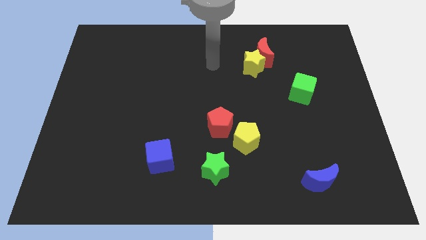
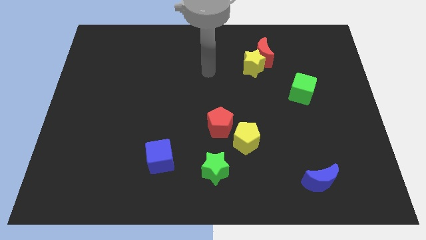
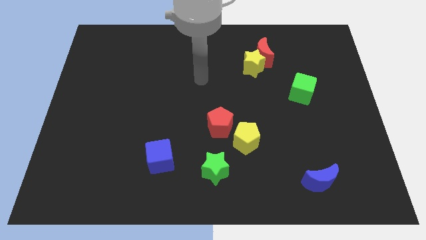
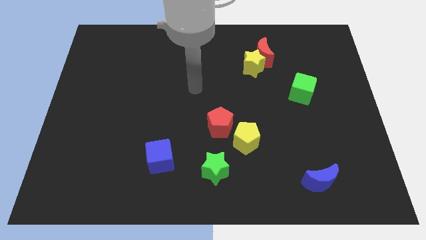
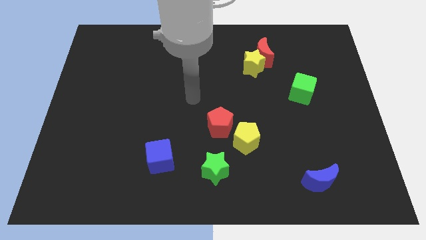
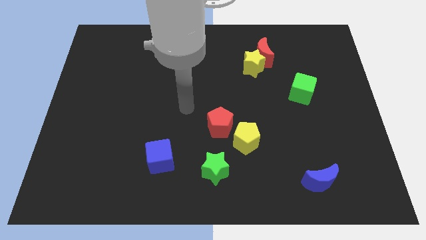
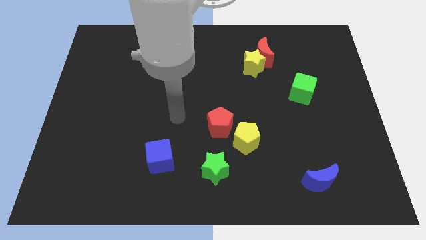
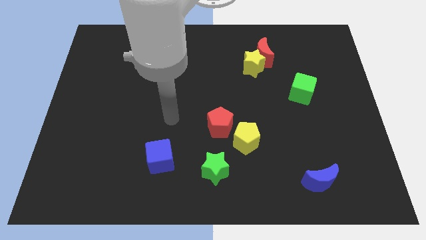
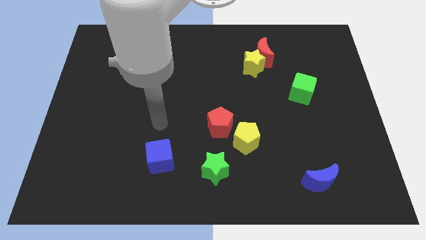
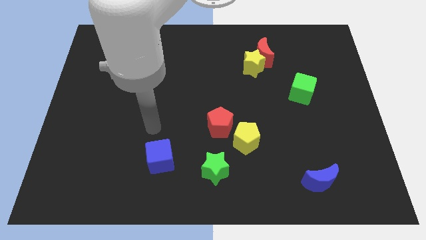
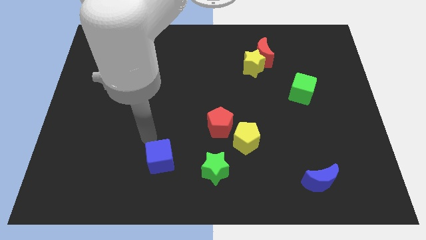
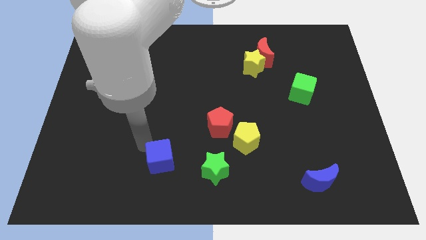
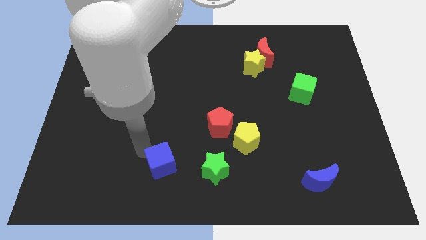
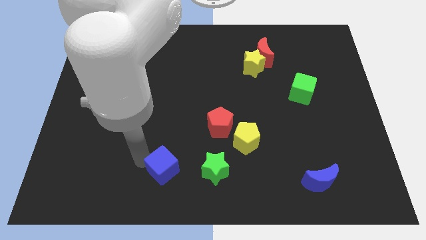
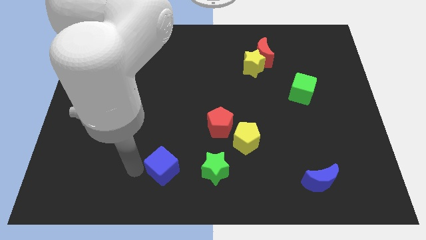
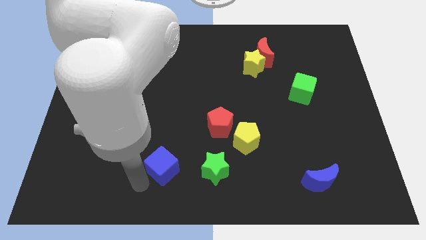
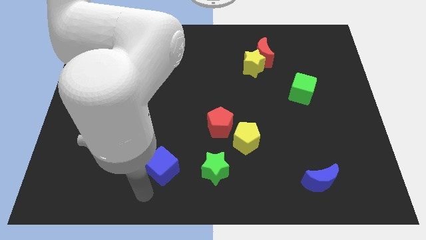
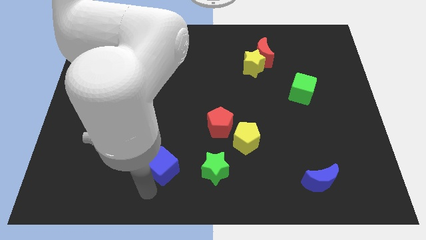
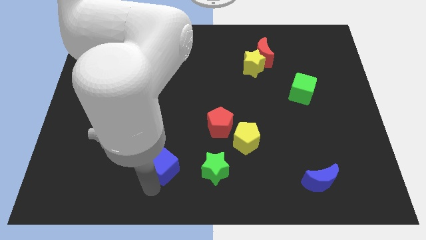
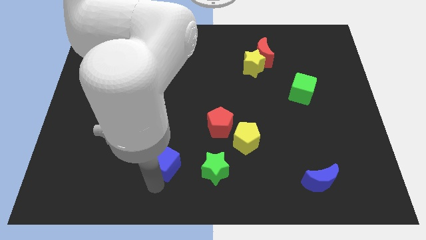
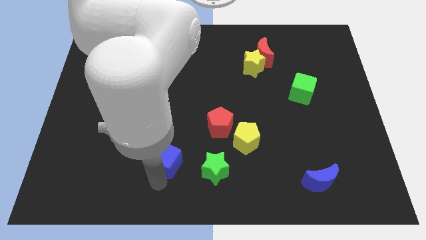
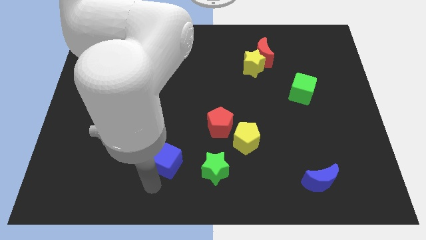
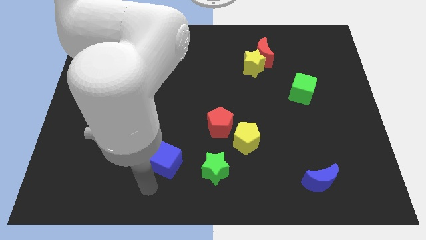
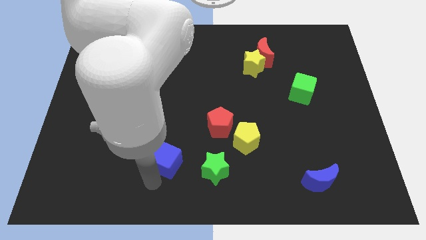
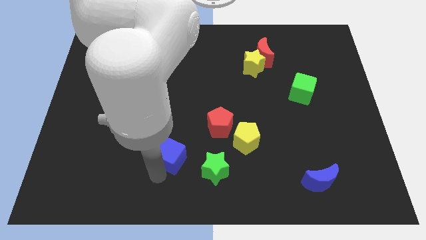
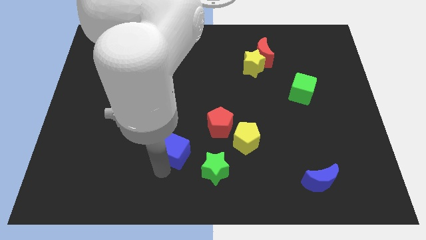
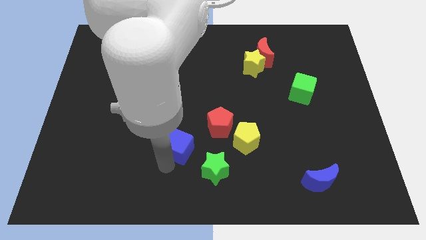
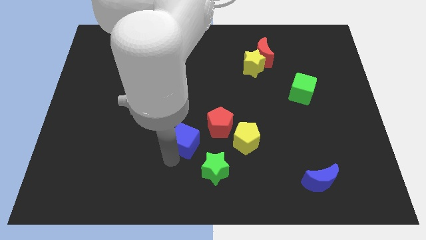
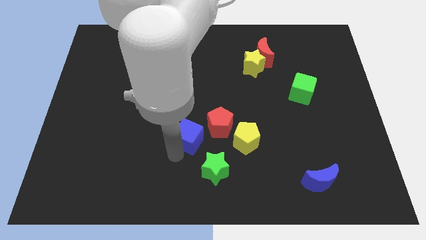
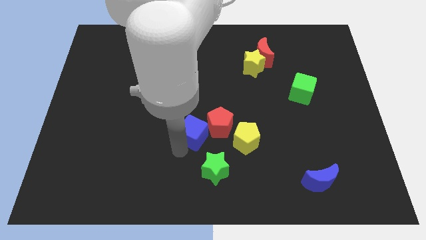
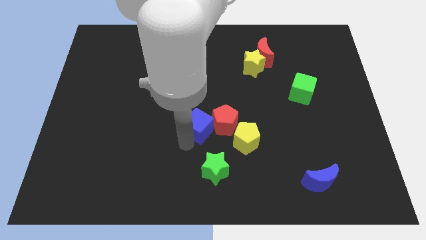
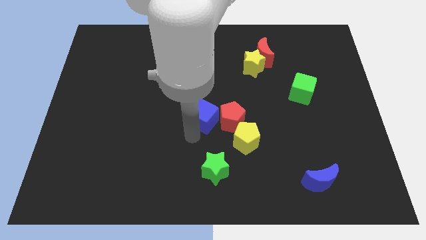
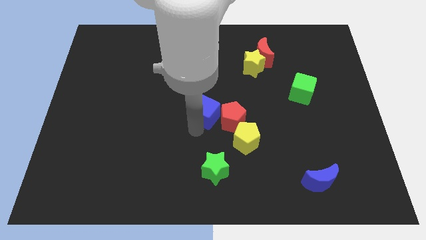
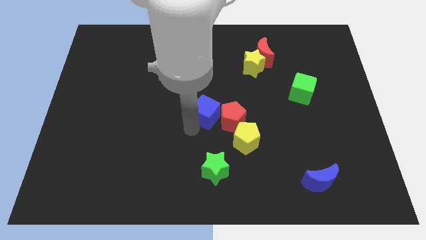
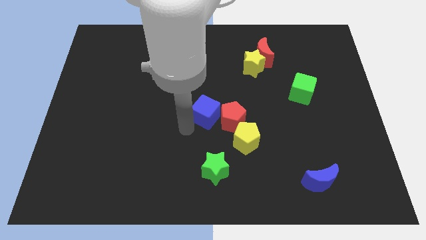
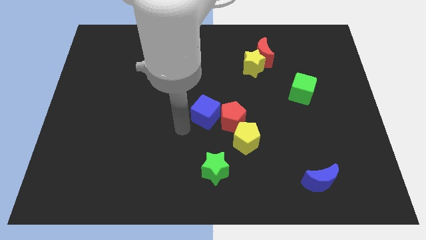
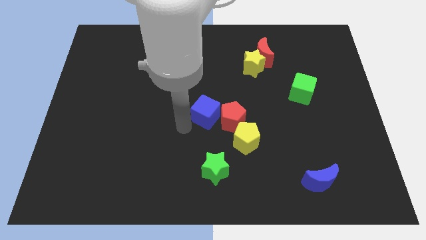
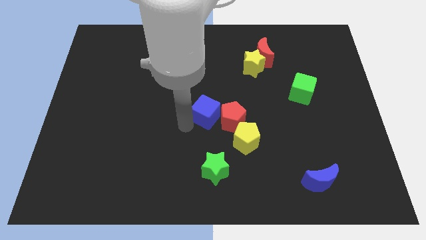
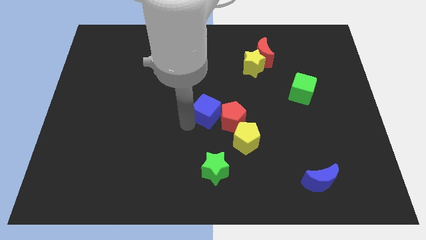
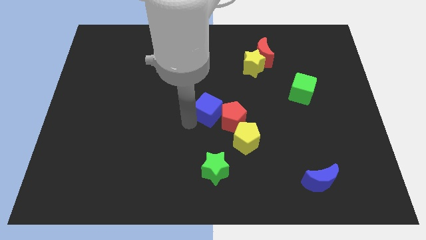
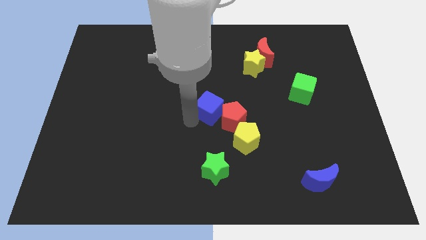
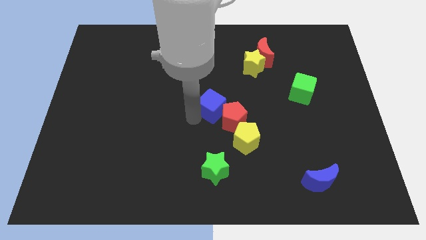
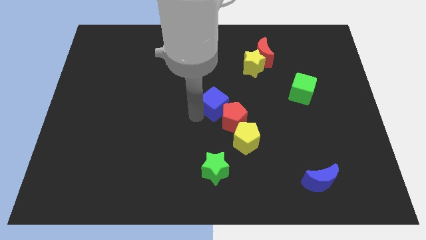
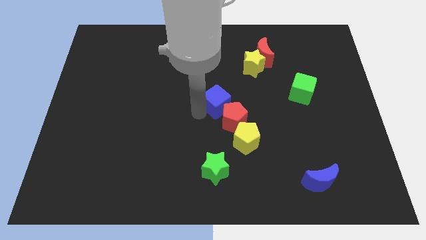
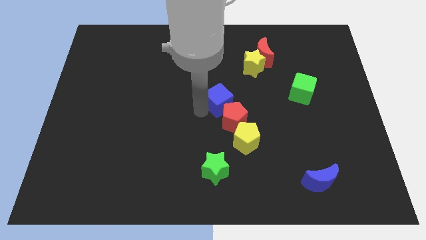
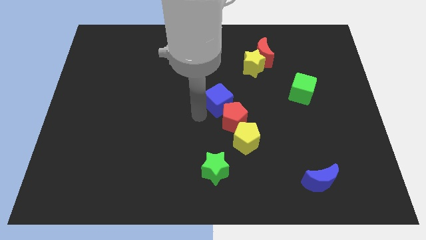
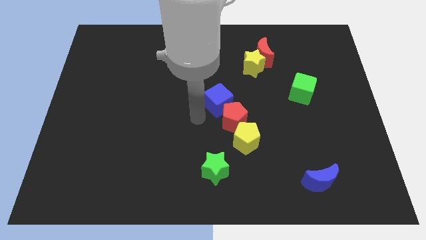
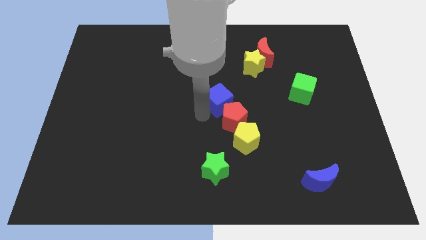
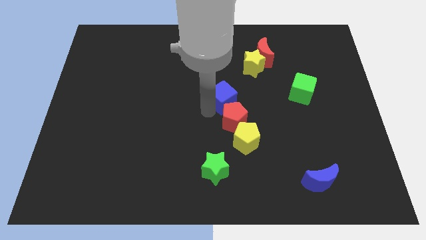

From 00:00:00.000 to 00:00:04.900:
push the blue cube up and to the right

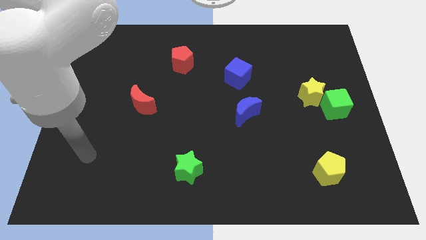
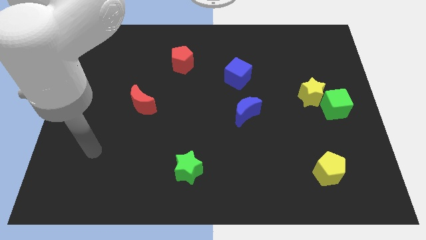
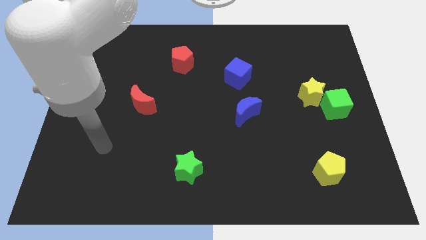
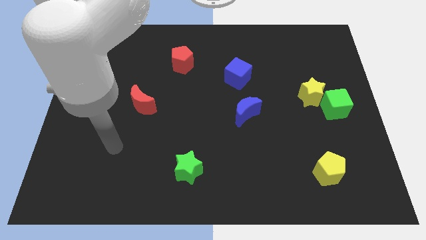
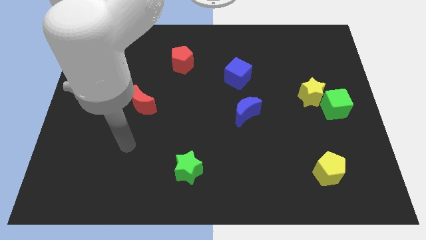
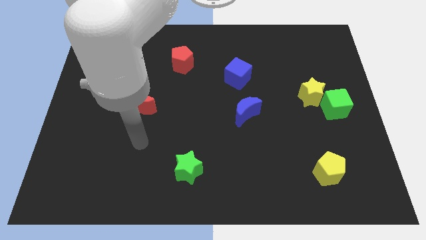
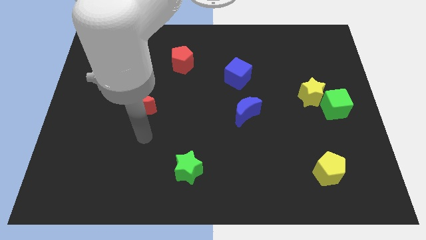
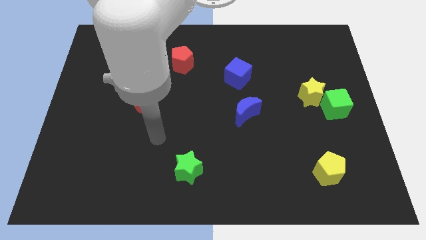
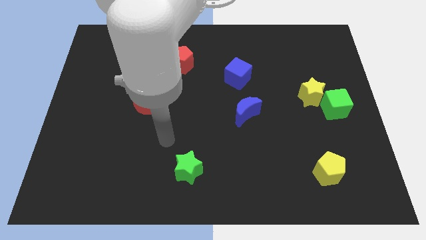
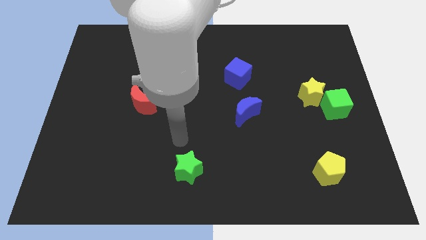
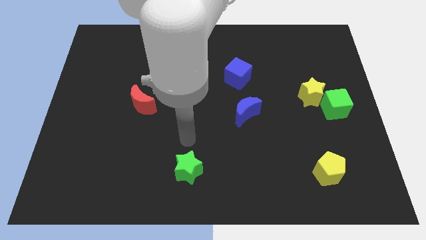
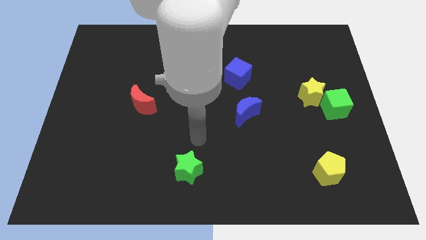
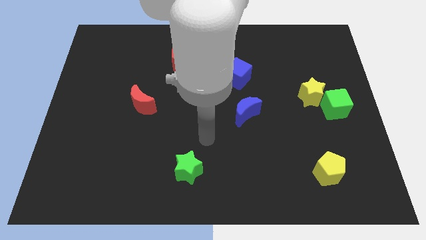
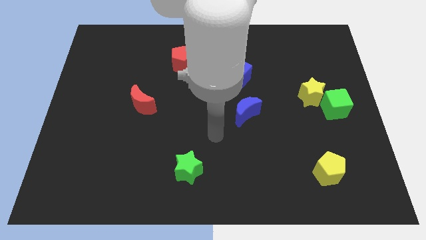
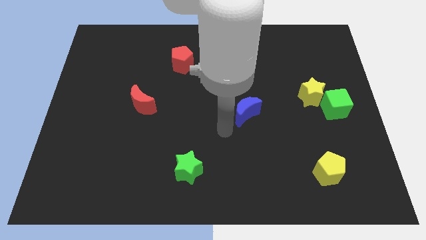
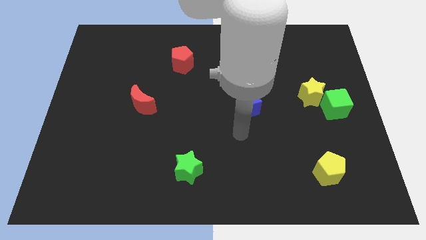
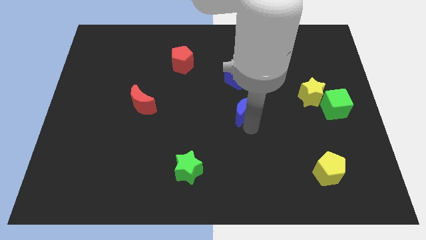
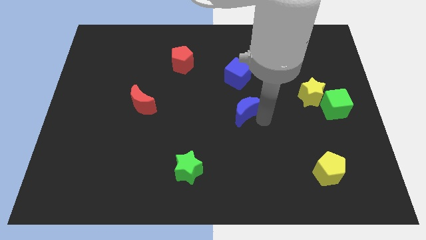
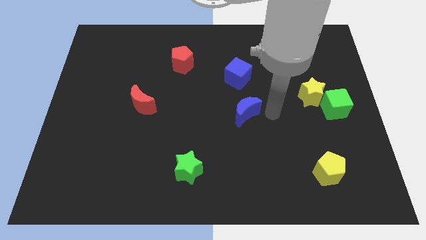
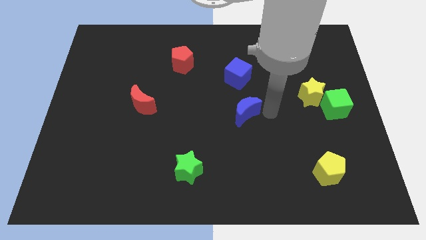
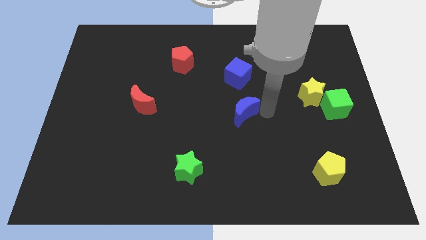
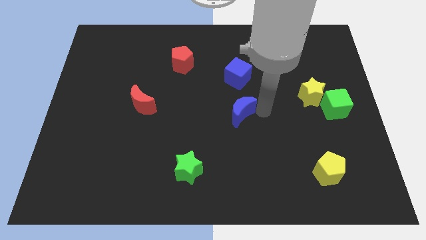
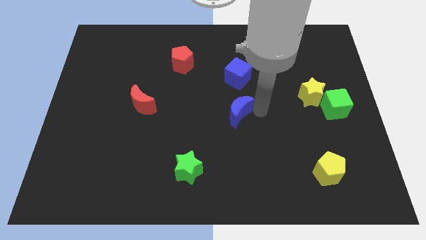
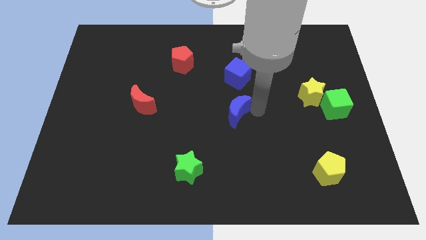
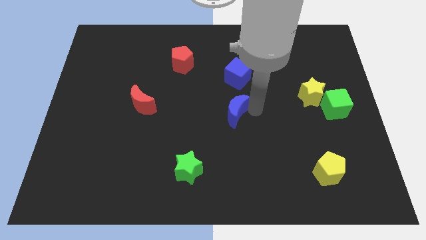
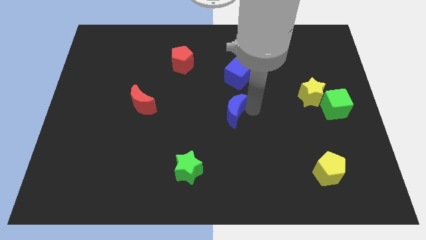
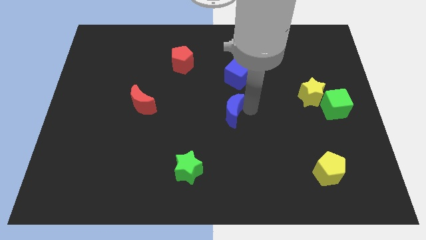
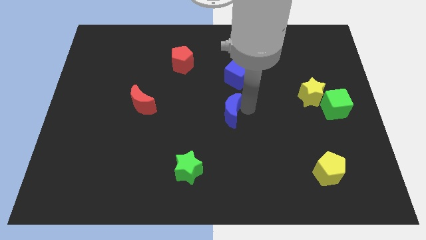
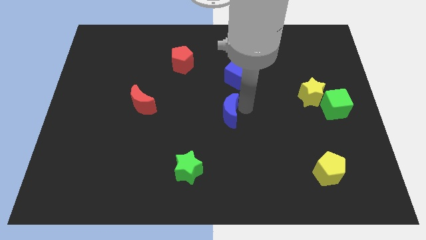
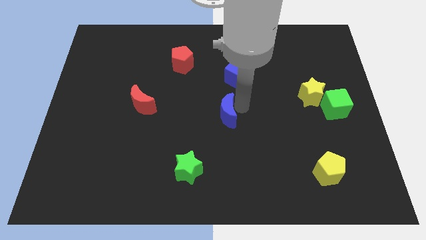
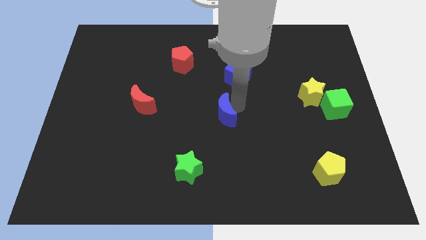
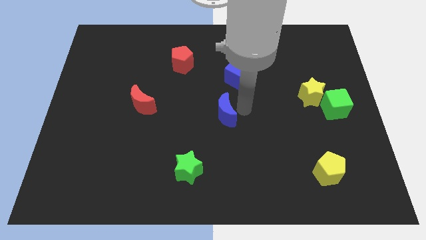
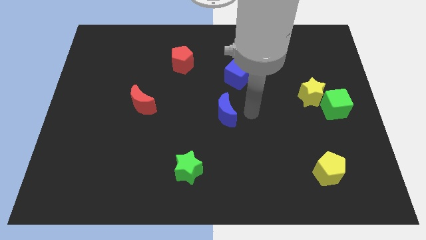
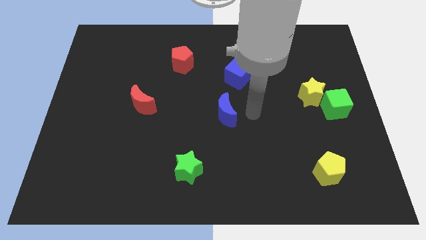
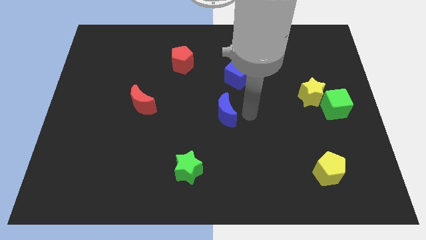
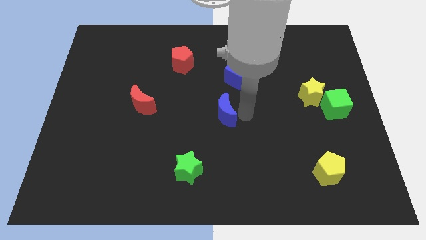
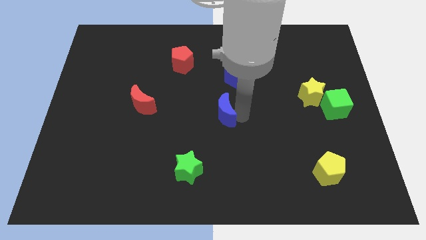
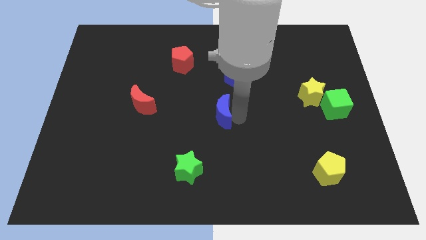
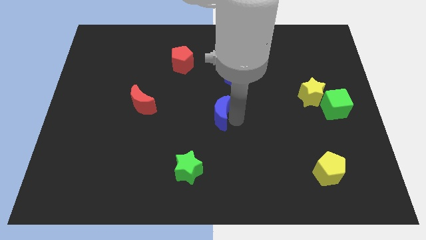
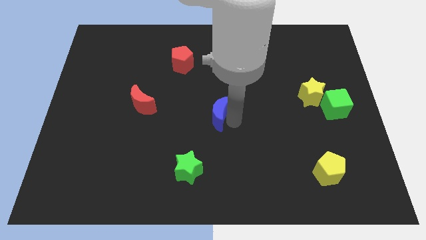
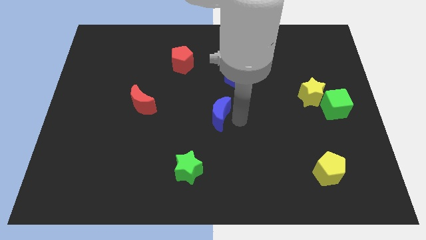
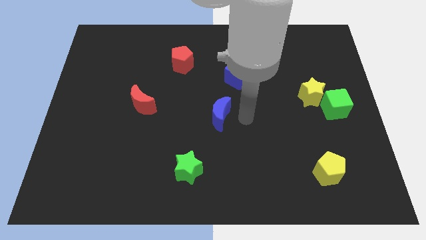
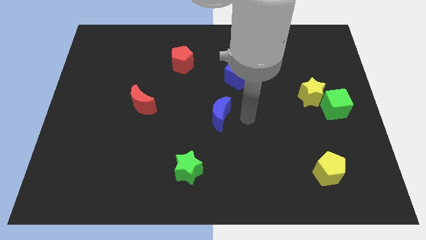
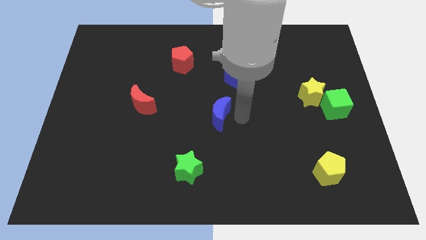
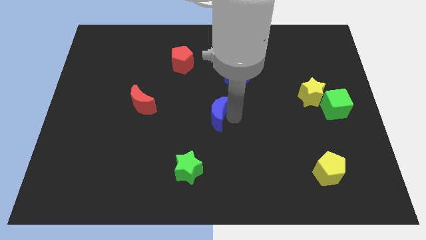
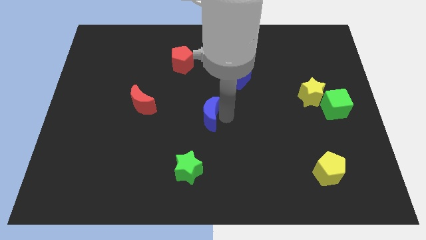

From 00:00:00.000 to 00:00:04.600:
slide the blue moon a little bit left
